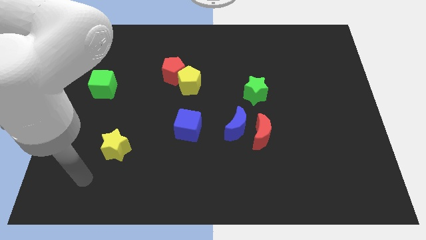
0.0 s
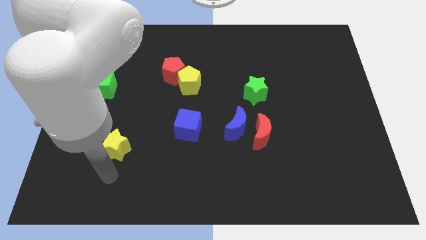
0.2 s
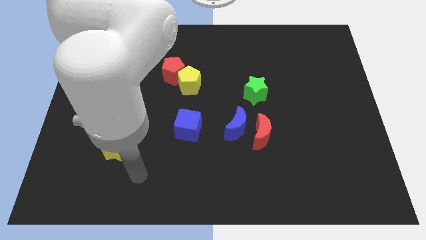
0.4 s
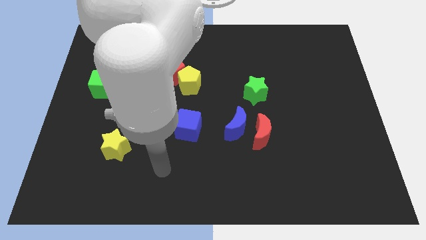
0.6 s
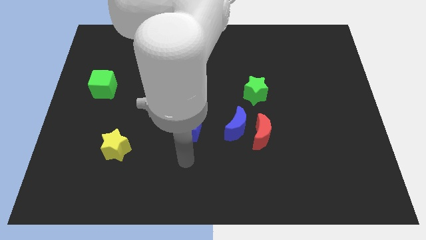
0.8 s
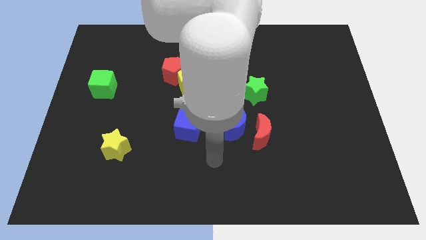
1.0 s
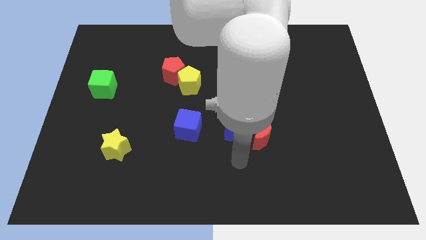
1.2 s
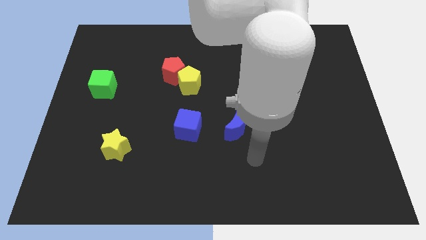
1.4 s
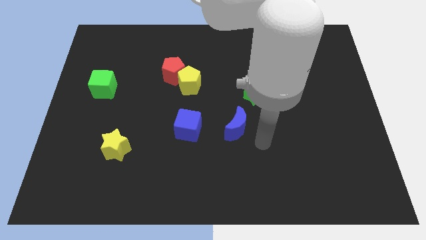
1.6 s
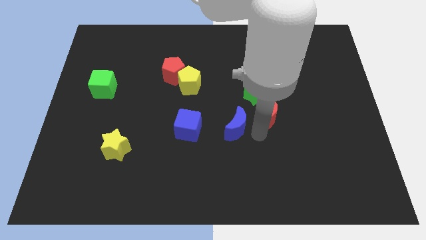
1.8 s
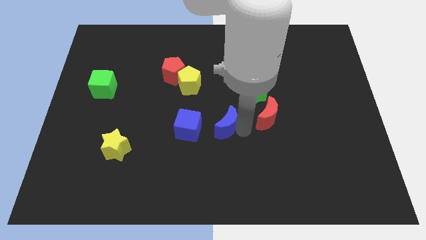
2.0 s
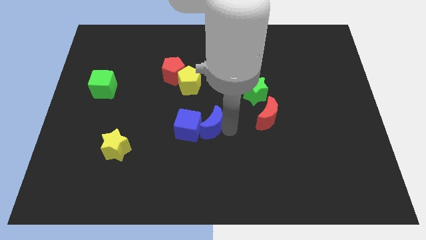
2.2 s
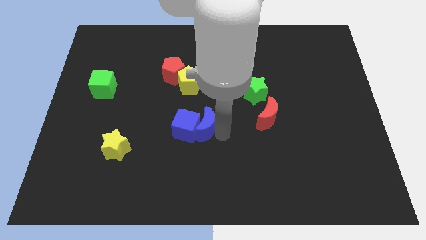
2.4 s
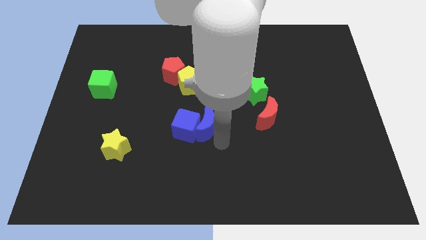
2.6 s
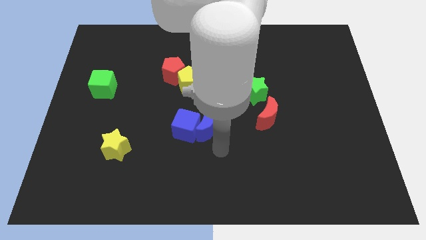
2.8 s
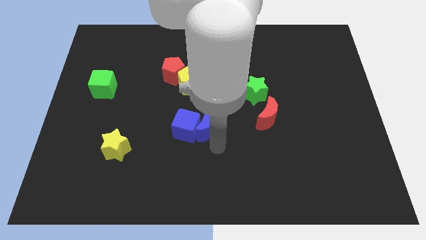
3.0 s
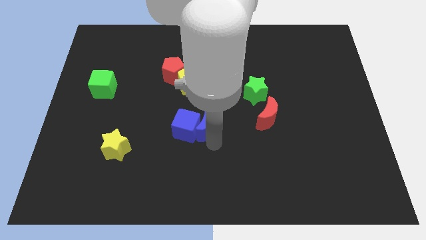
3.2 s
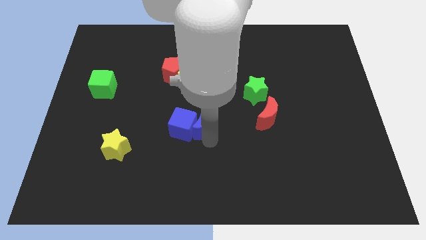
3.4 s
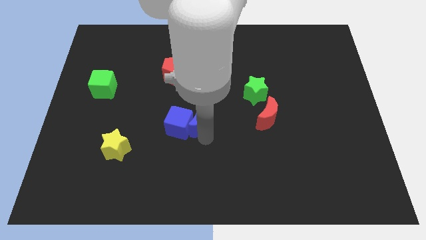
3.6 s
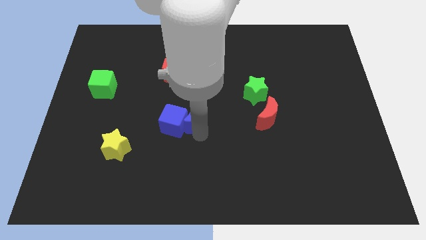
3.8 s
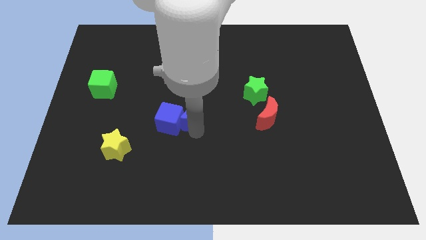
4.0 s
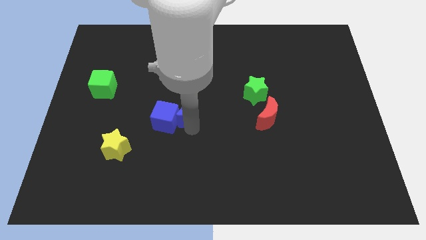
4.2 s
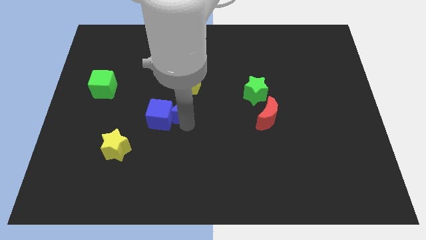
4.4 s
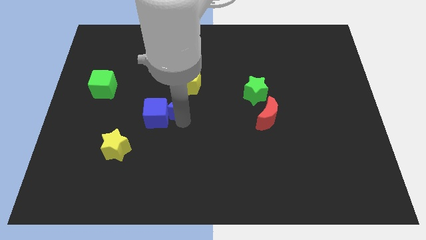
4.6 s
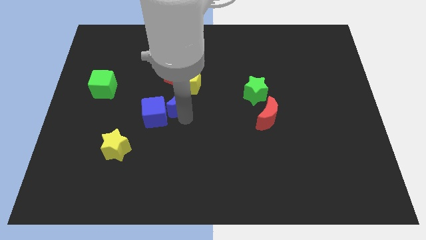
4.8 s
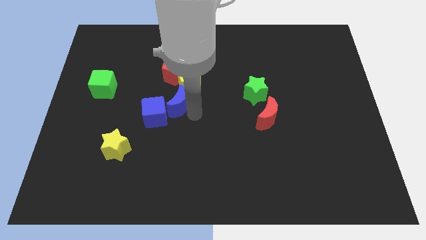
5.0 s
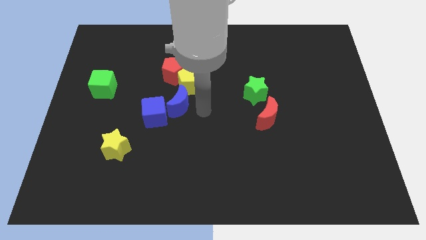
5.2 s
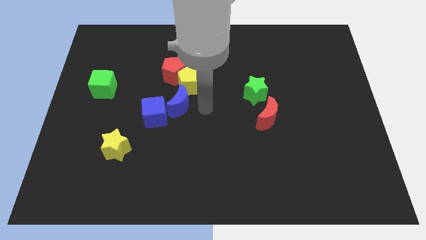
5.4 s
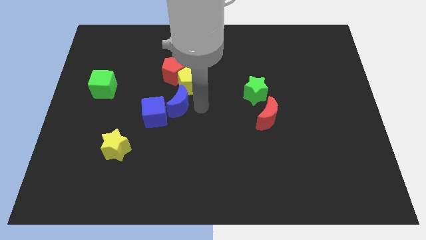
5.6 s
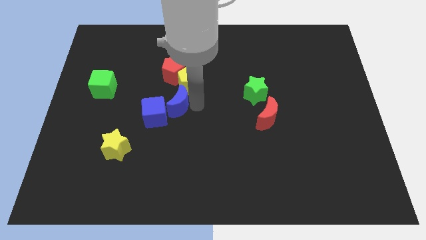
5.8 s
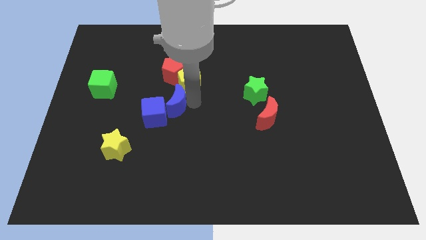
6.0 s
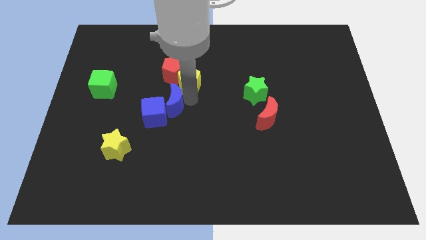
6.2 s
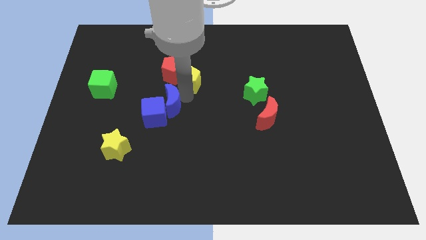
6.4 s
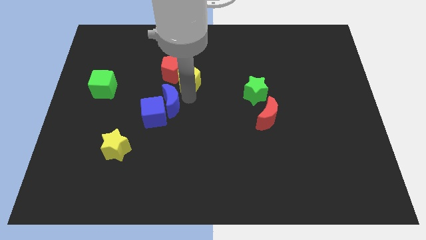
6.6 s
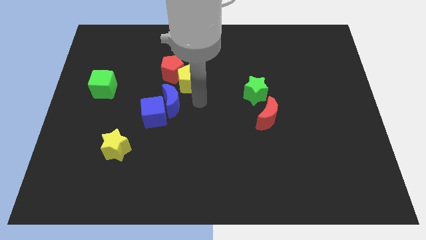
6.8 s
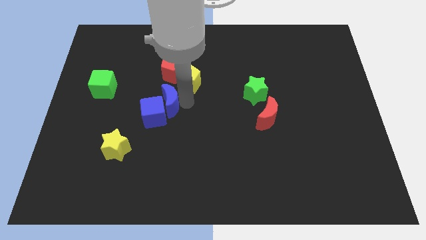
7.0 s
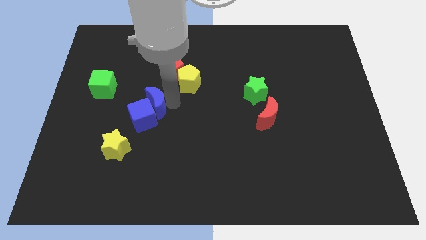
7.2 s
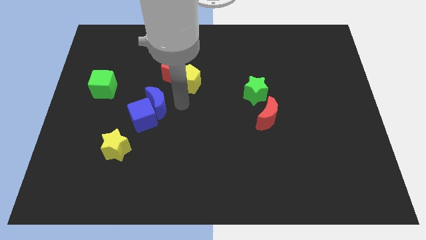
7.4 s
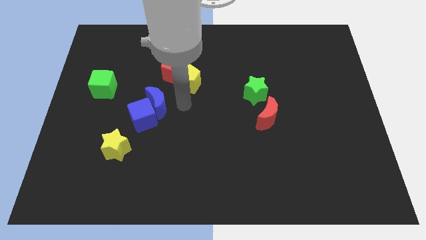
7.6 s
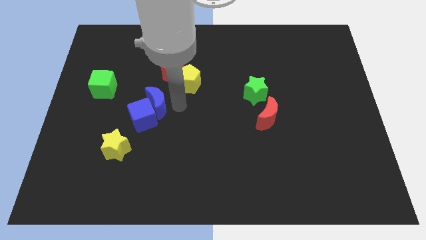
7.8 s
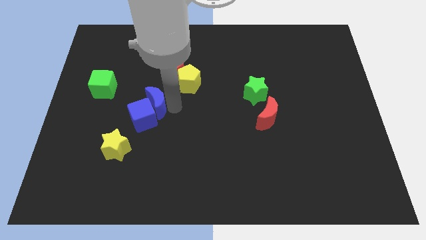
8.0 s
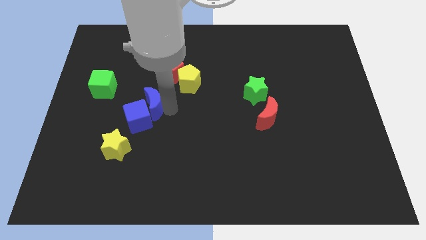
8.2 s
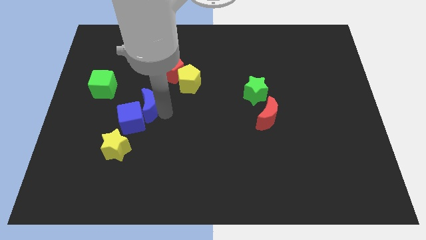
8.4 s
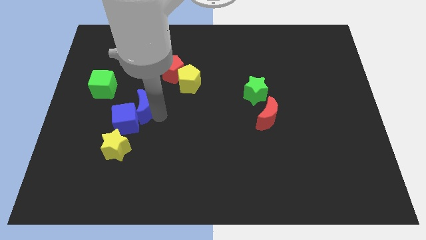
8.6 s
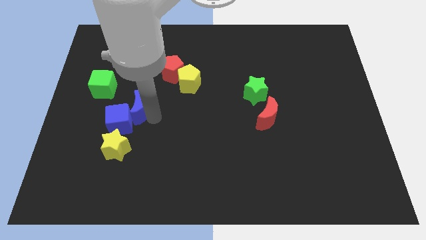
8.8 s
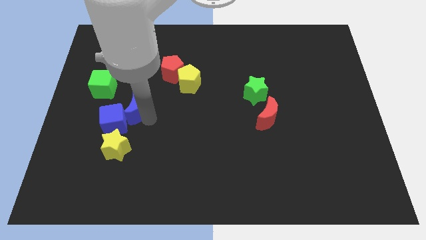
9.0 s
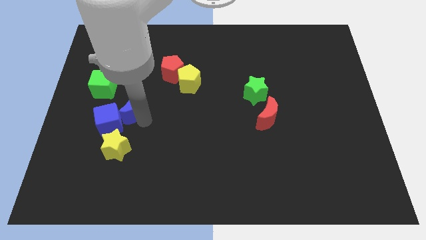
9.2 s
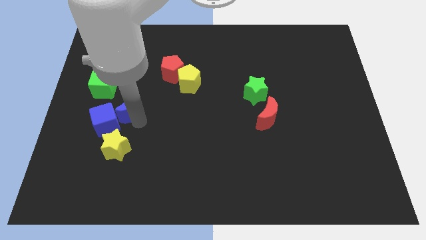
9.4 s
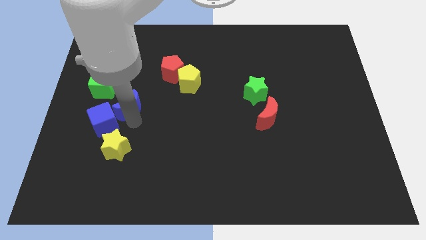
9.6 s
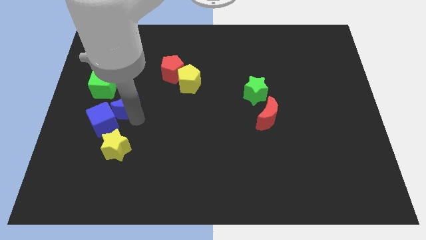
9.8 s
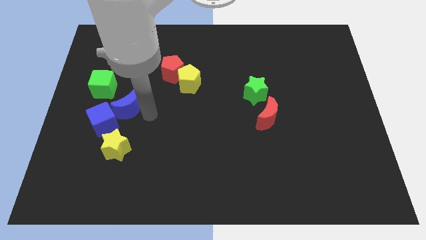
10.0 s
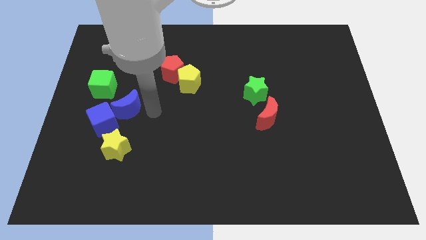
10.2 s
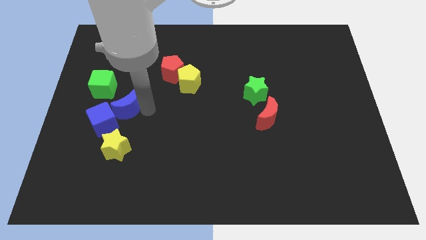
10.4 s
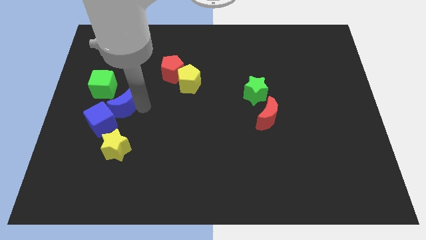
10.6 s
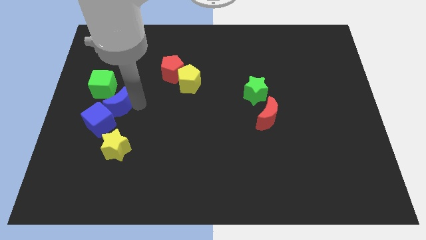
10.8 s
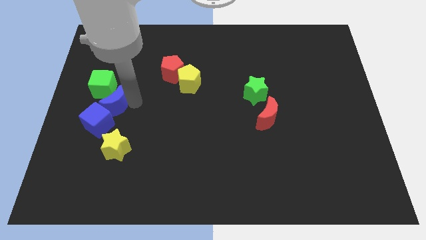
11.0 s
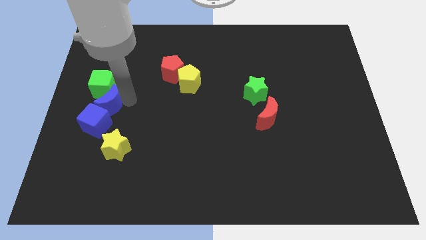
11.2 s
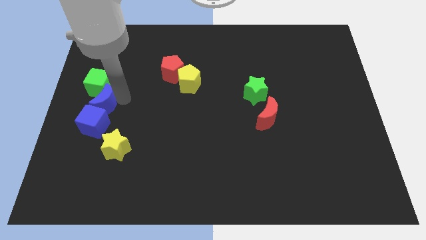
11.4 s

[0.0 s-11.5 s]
slide the blue moon to the center left
